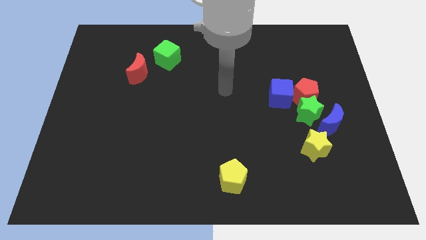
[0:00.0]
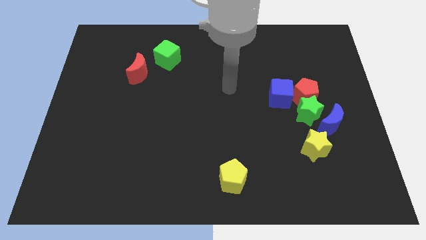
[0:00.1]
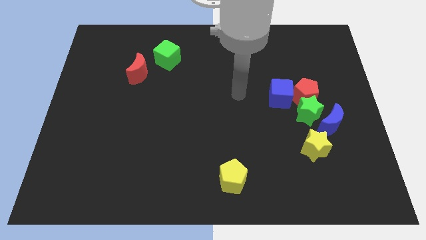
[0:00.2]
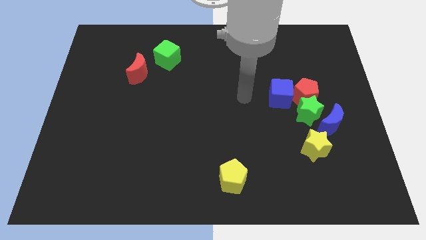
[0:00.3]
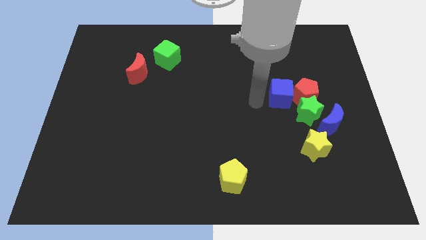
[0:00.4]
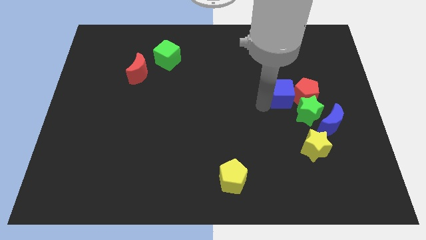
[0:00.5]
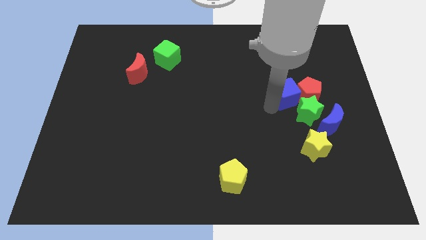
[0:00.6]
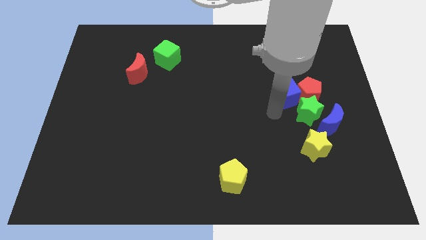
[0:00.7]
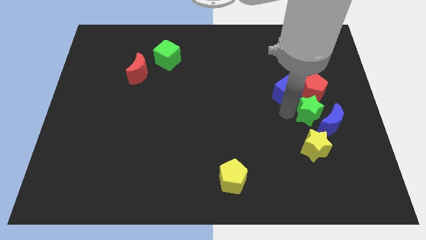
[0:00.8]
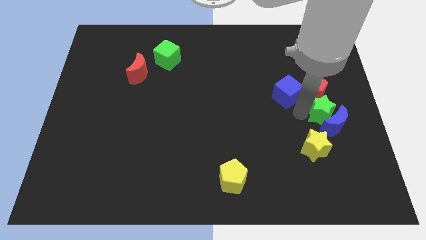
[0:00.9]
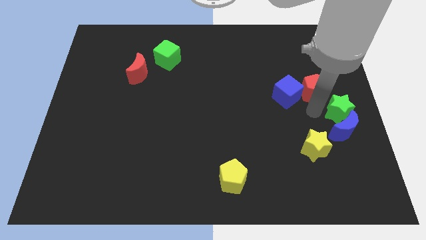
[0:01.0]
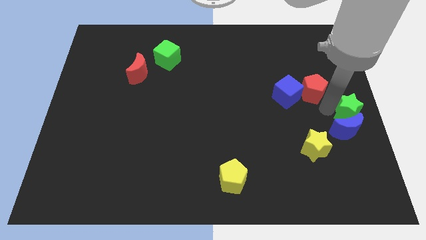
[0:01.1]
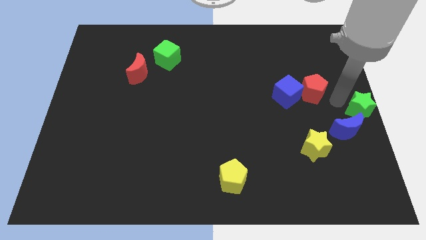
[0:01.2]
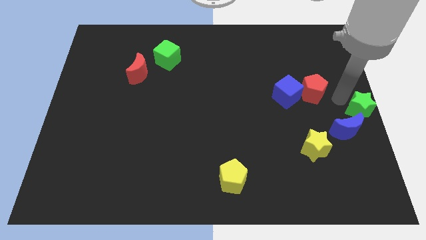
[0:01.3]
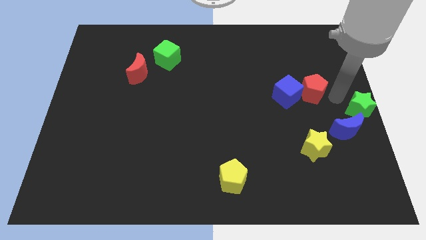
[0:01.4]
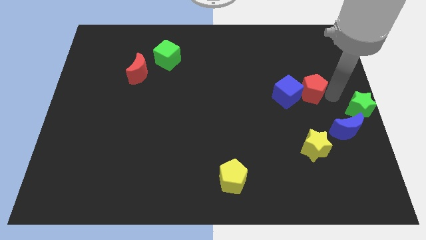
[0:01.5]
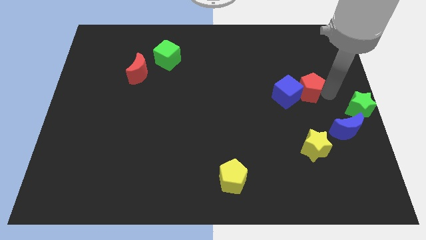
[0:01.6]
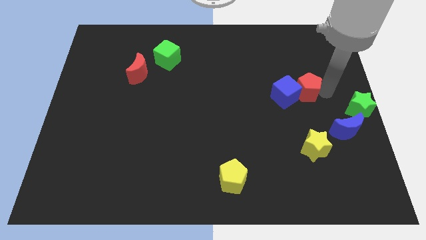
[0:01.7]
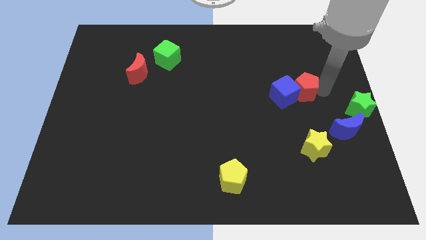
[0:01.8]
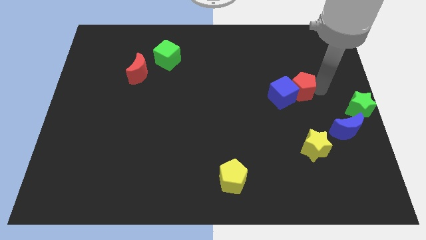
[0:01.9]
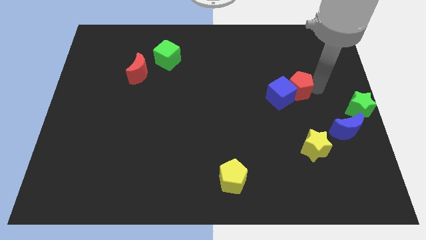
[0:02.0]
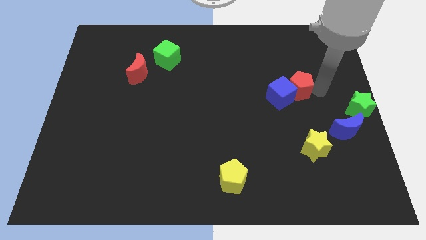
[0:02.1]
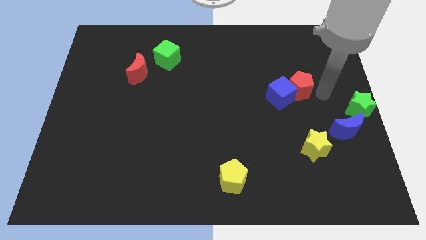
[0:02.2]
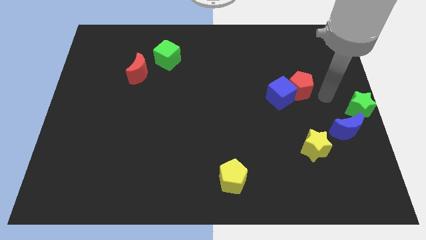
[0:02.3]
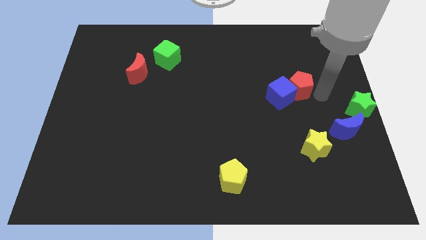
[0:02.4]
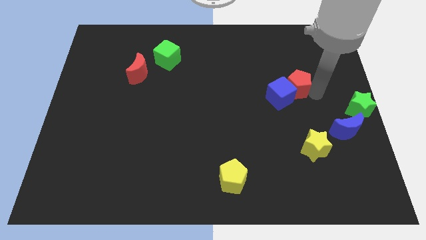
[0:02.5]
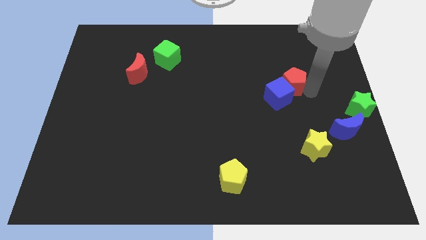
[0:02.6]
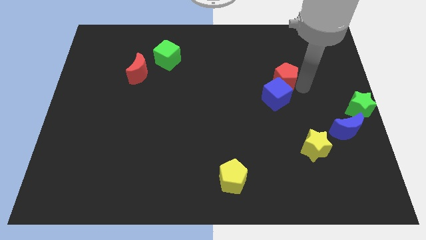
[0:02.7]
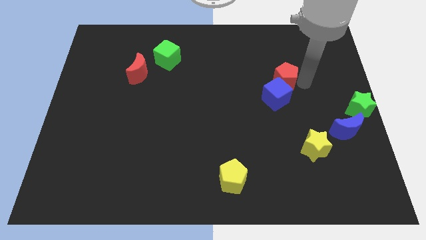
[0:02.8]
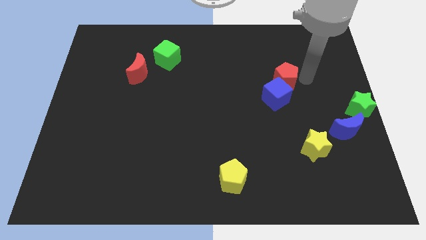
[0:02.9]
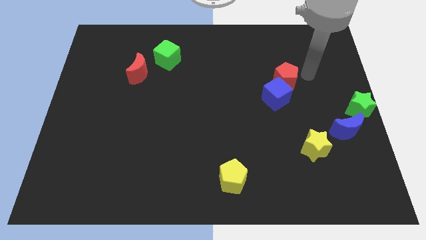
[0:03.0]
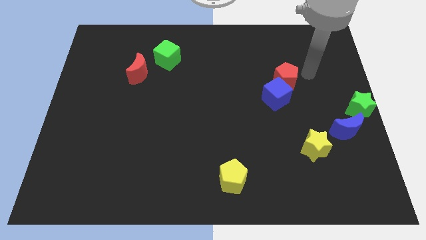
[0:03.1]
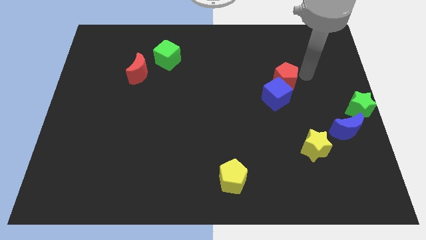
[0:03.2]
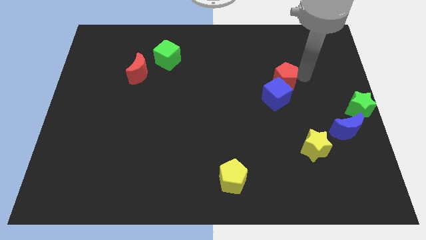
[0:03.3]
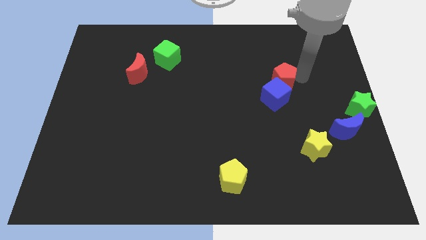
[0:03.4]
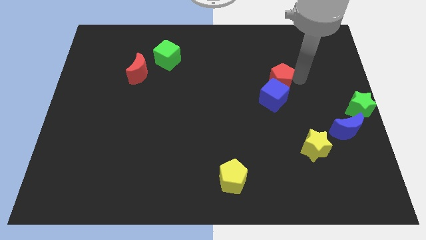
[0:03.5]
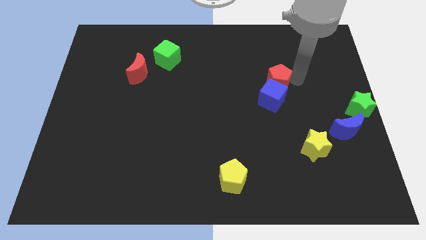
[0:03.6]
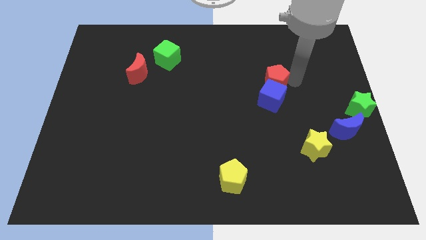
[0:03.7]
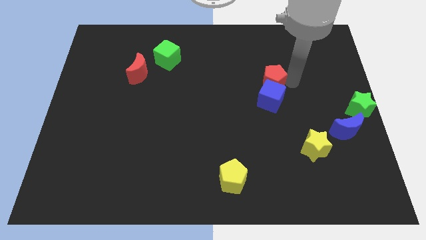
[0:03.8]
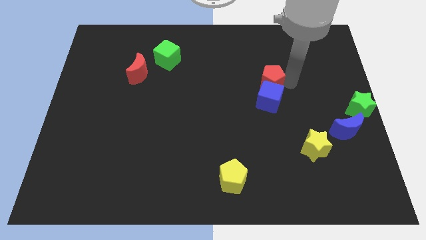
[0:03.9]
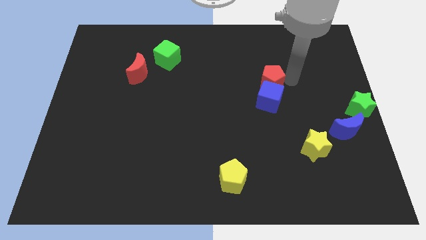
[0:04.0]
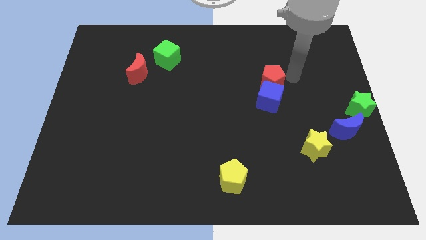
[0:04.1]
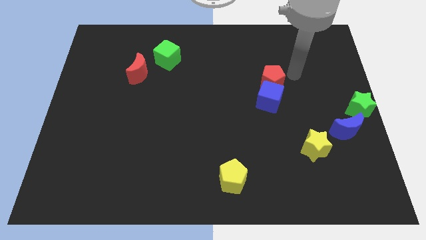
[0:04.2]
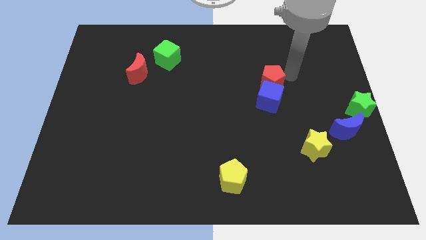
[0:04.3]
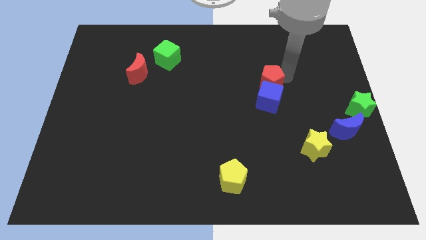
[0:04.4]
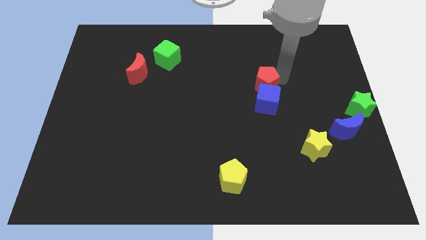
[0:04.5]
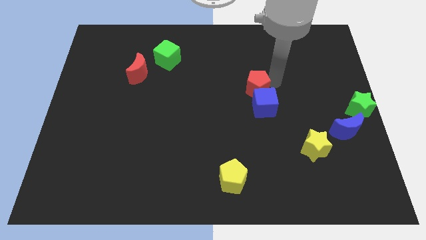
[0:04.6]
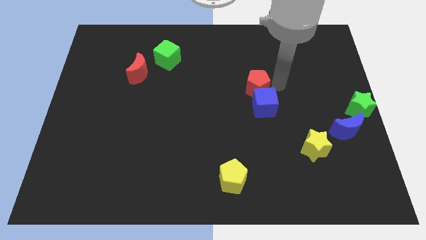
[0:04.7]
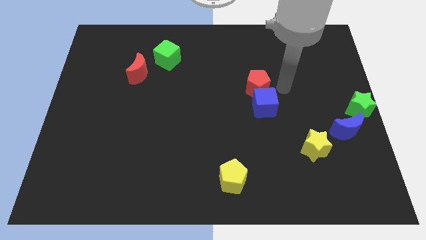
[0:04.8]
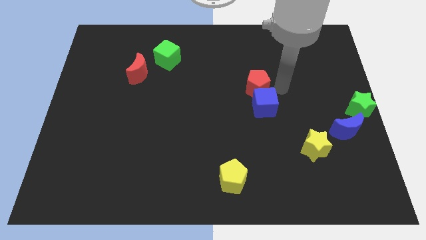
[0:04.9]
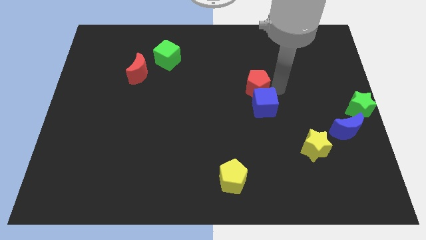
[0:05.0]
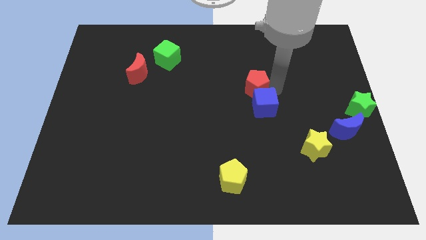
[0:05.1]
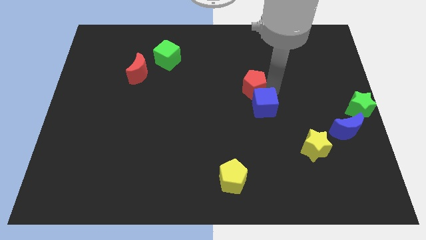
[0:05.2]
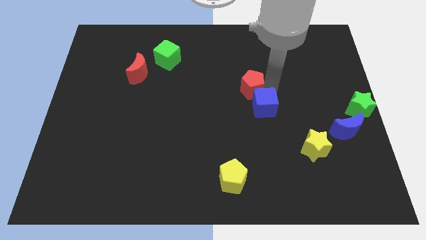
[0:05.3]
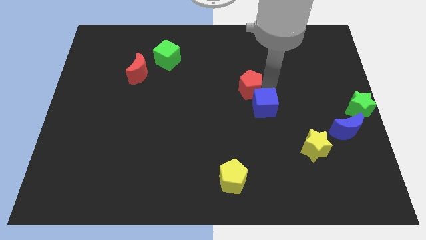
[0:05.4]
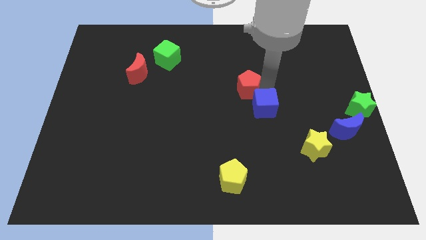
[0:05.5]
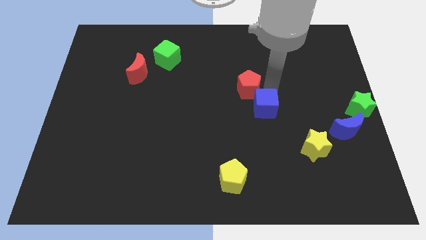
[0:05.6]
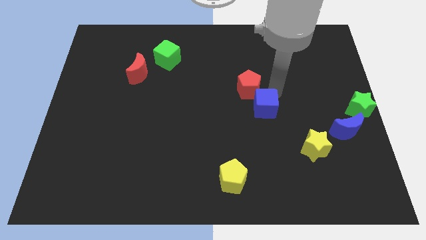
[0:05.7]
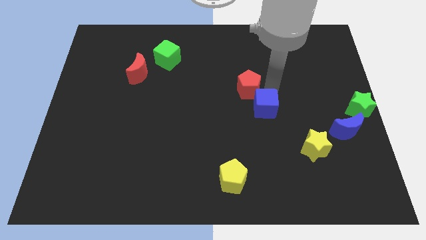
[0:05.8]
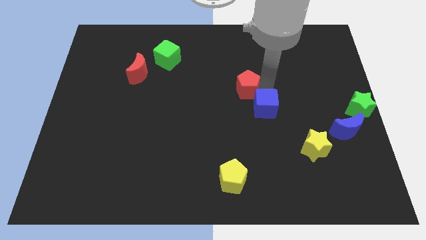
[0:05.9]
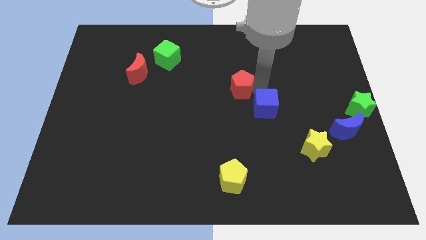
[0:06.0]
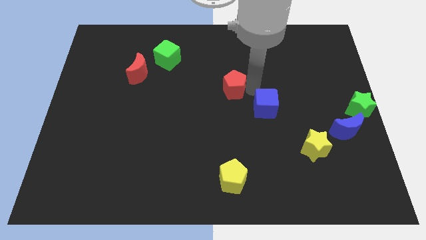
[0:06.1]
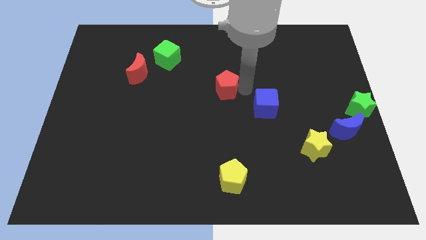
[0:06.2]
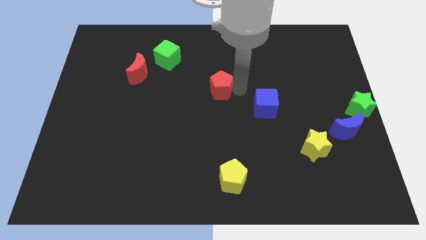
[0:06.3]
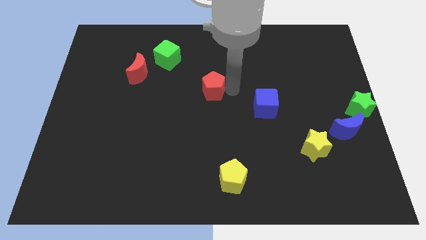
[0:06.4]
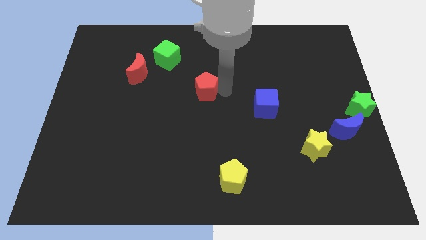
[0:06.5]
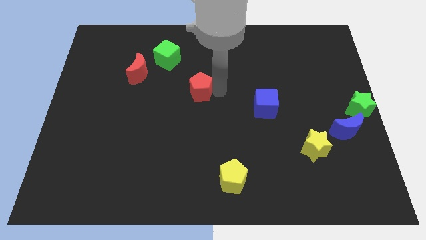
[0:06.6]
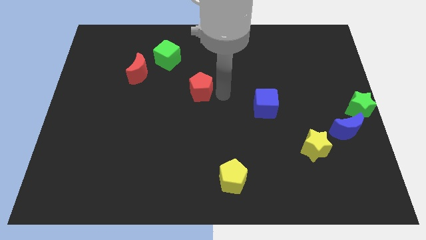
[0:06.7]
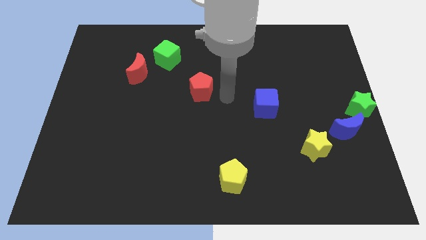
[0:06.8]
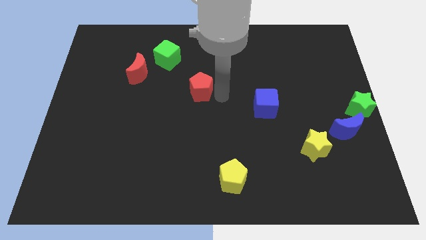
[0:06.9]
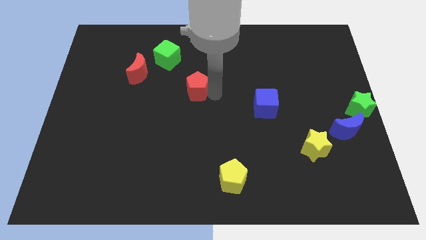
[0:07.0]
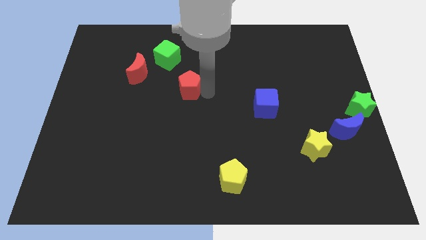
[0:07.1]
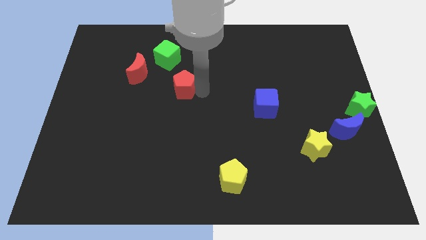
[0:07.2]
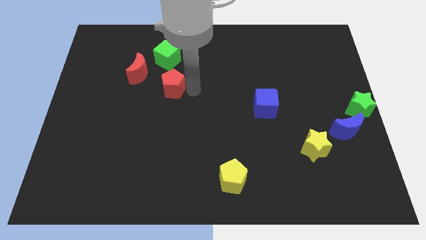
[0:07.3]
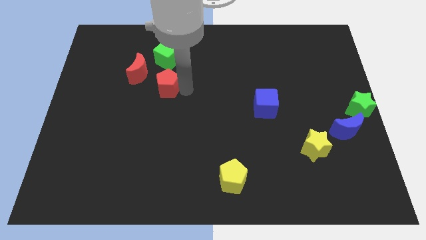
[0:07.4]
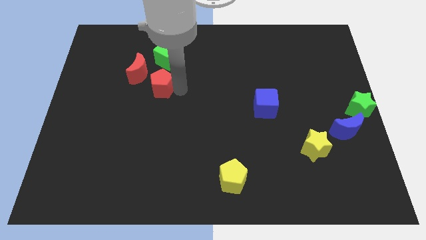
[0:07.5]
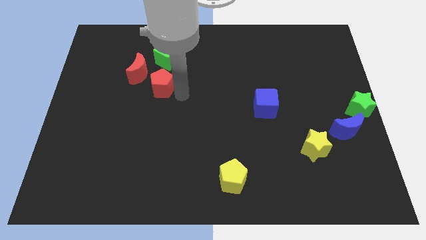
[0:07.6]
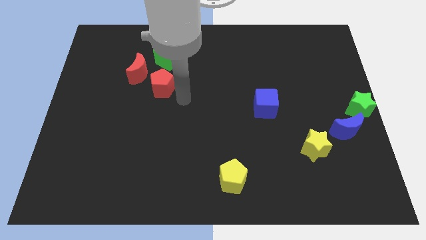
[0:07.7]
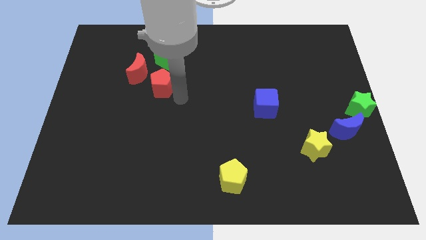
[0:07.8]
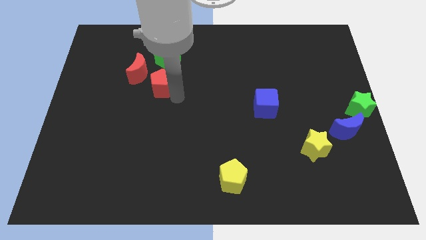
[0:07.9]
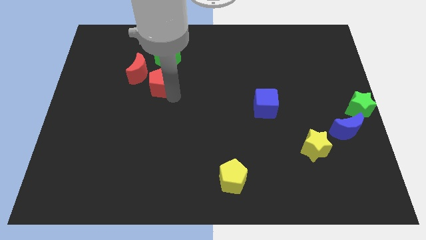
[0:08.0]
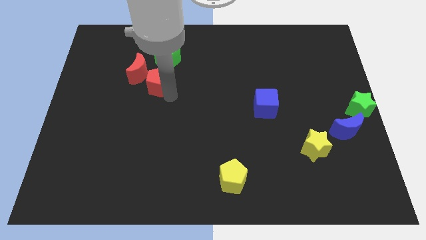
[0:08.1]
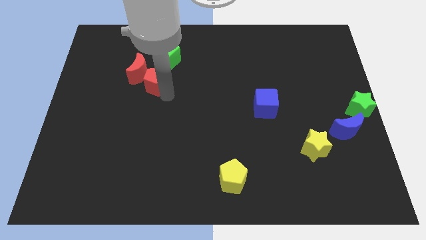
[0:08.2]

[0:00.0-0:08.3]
put the red pentagon close to the red moon
